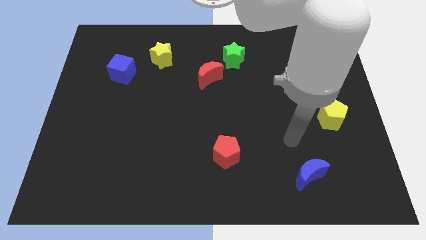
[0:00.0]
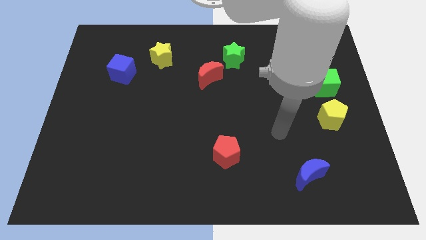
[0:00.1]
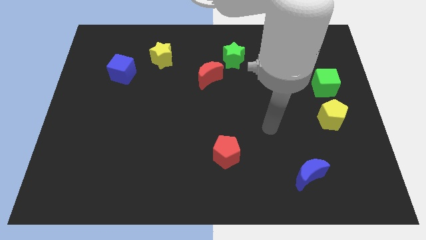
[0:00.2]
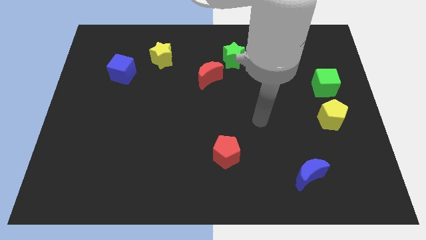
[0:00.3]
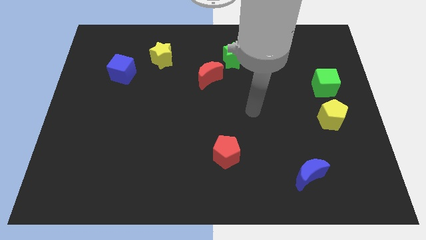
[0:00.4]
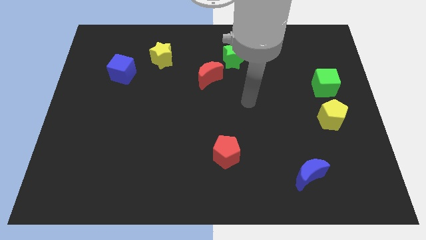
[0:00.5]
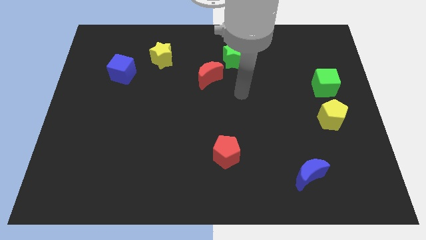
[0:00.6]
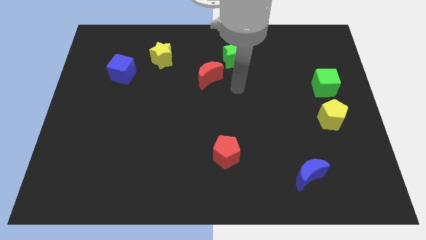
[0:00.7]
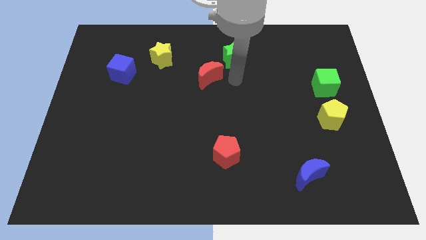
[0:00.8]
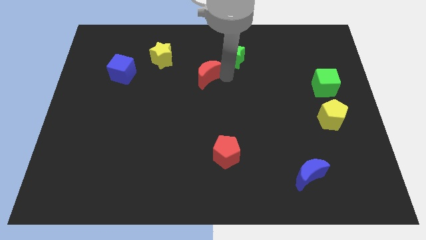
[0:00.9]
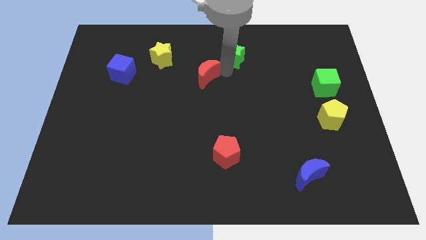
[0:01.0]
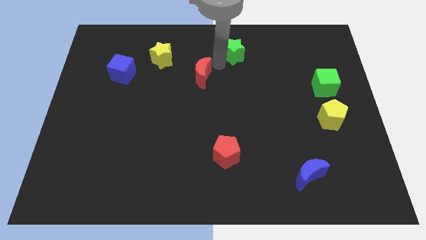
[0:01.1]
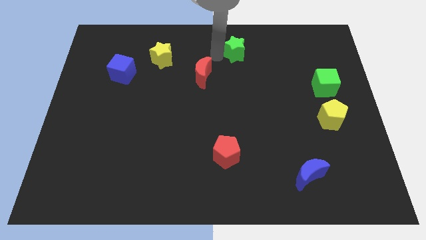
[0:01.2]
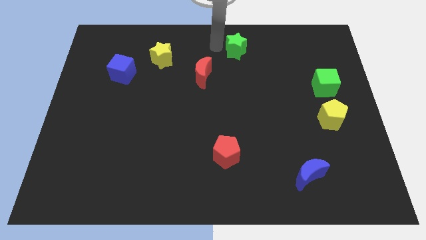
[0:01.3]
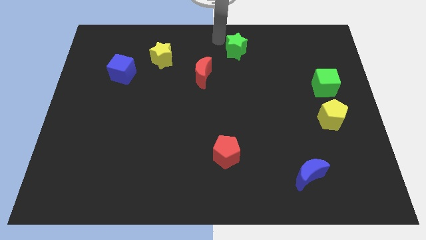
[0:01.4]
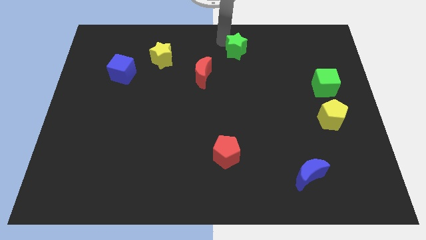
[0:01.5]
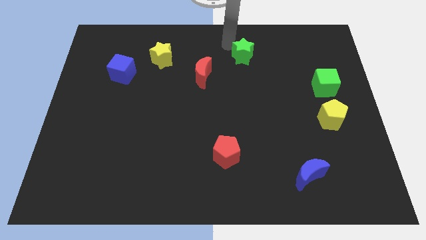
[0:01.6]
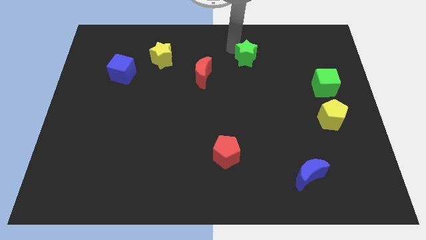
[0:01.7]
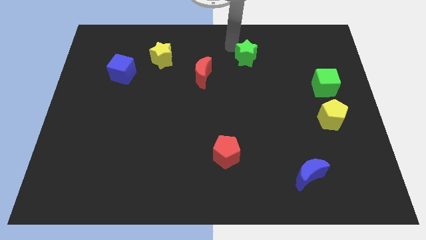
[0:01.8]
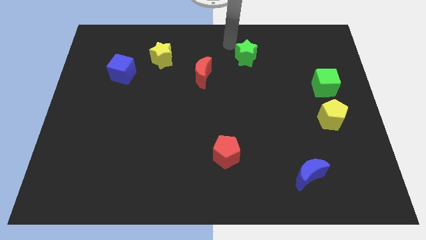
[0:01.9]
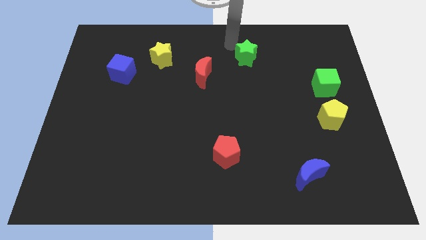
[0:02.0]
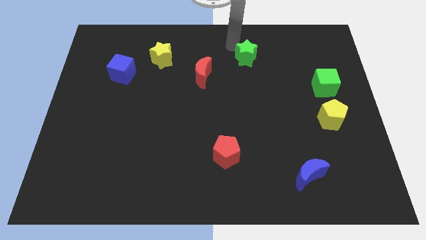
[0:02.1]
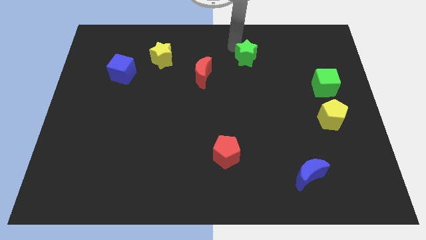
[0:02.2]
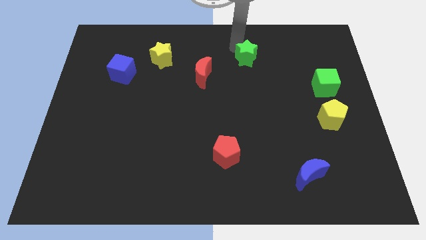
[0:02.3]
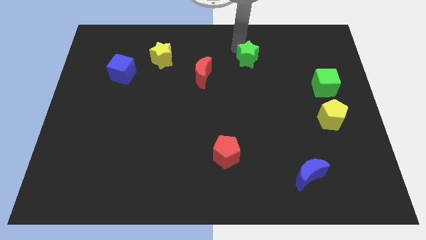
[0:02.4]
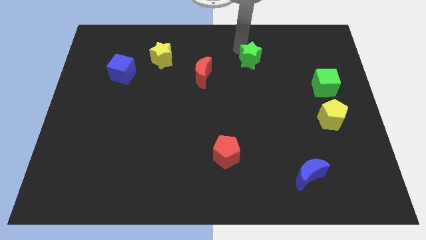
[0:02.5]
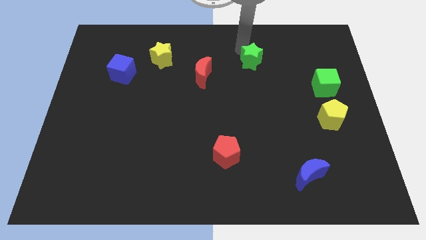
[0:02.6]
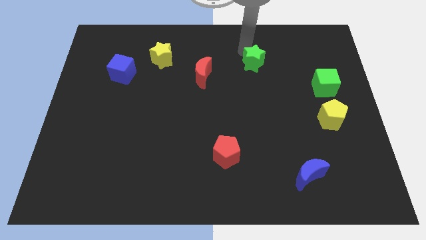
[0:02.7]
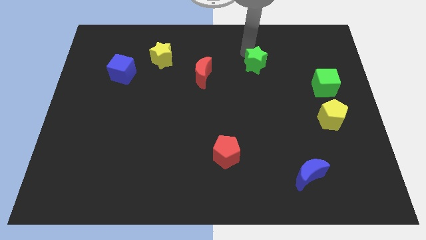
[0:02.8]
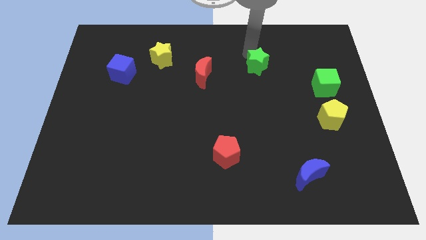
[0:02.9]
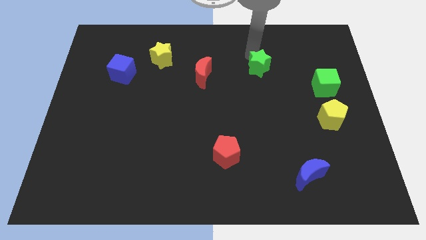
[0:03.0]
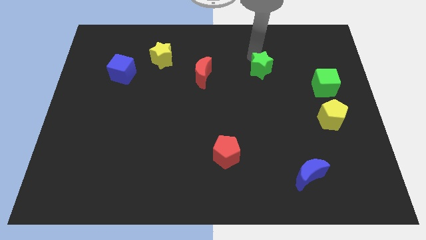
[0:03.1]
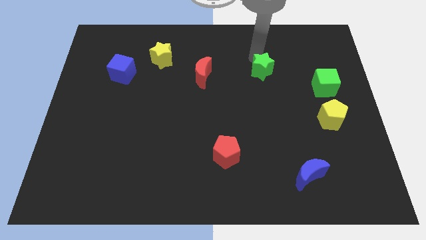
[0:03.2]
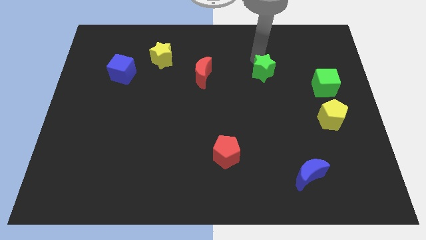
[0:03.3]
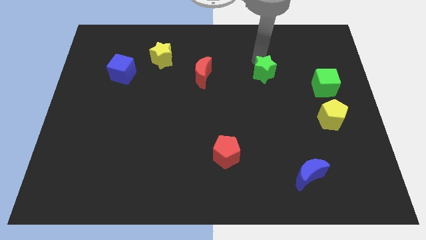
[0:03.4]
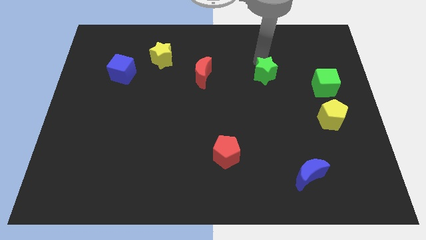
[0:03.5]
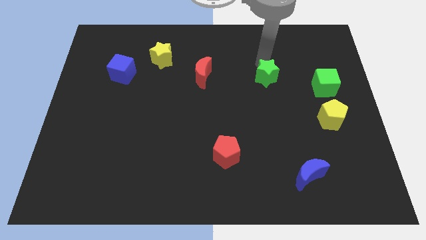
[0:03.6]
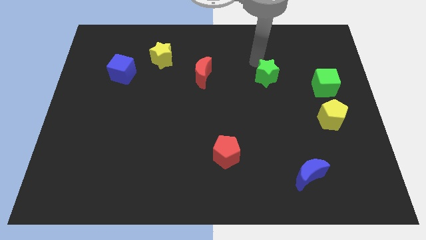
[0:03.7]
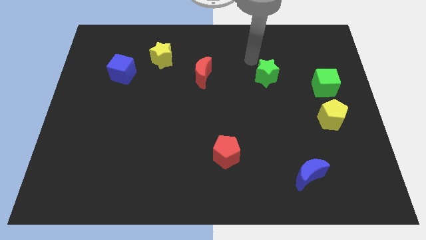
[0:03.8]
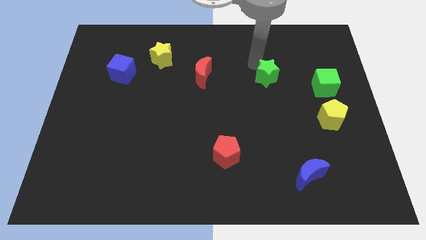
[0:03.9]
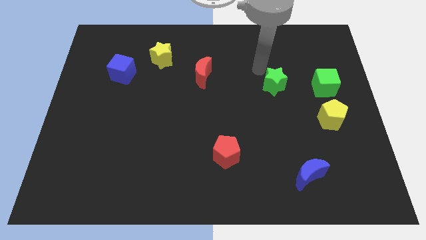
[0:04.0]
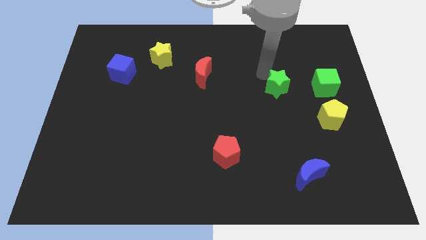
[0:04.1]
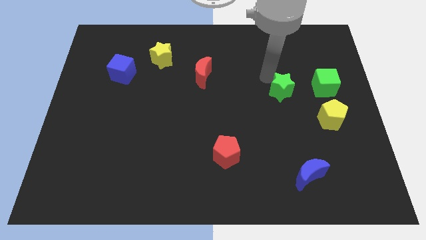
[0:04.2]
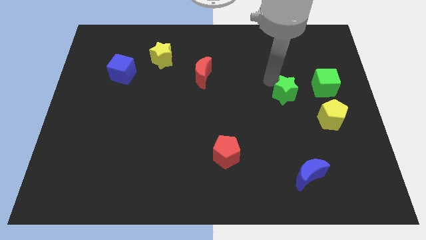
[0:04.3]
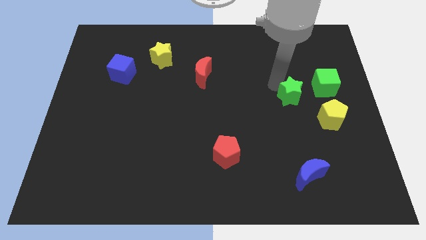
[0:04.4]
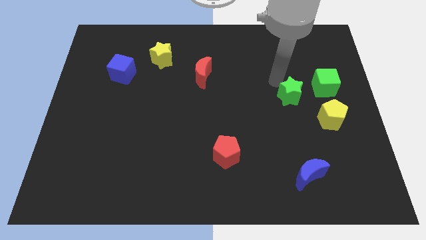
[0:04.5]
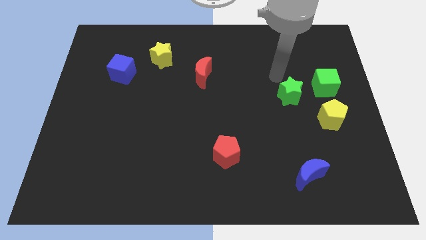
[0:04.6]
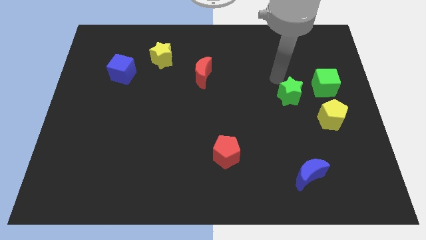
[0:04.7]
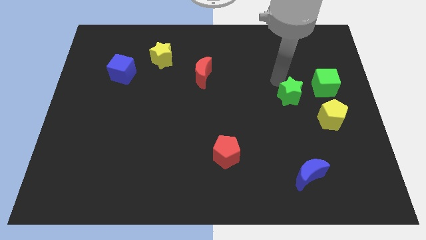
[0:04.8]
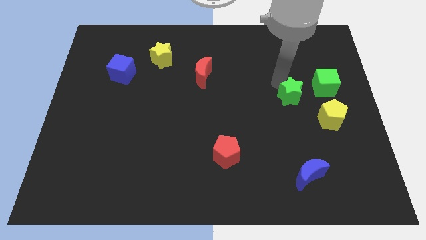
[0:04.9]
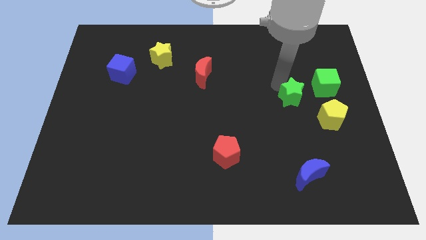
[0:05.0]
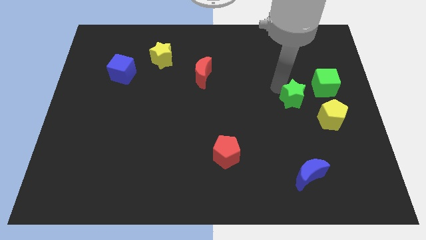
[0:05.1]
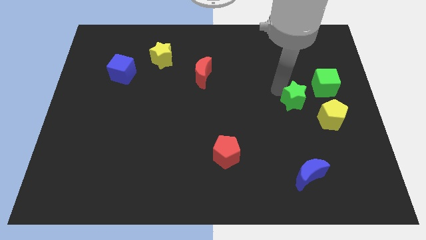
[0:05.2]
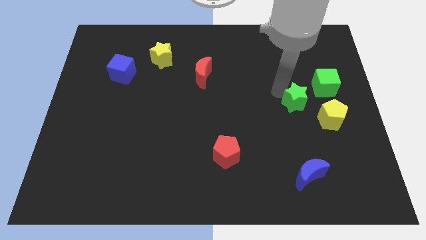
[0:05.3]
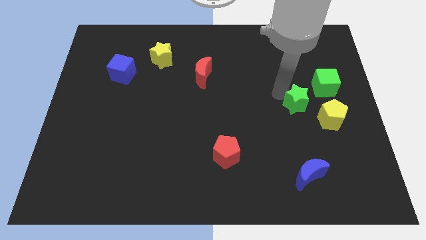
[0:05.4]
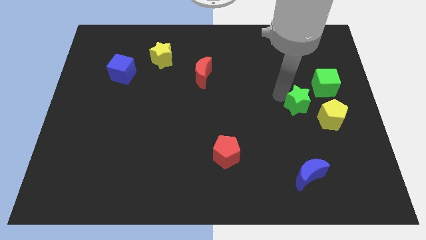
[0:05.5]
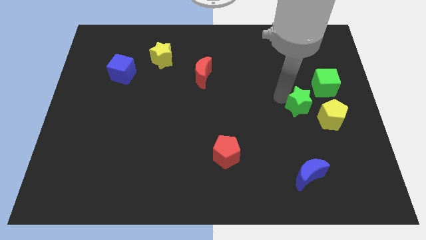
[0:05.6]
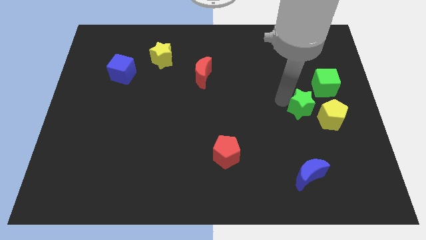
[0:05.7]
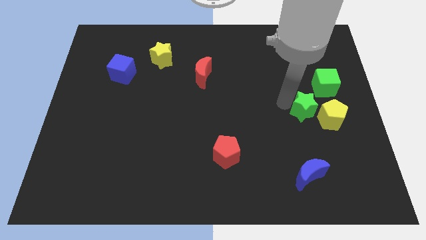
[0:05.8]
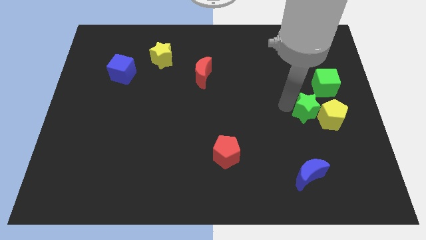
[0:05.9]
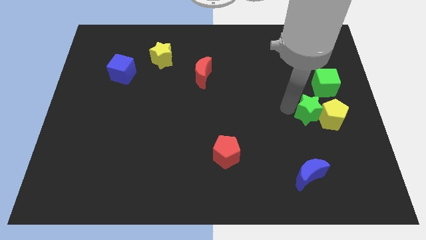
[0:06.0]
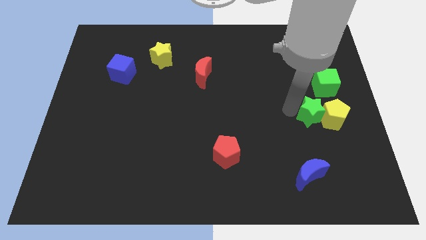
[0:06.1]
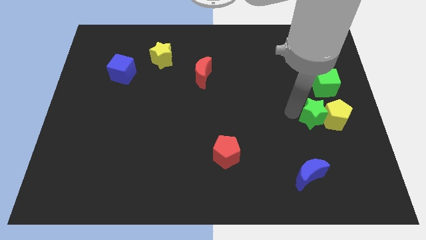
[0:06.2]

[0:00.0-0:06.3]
slide the green star to the bottom side of the green cube
